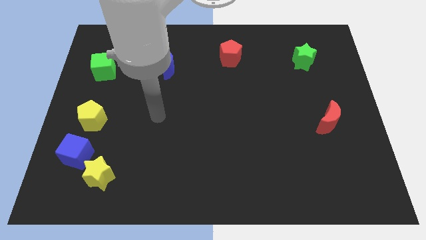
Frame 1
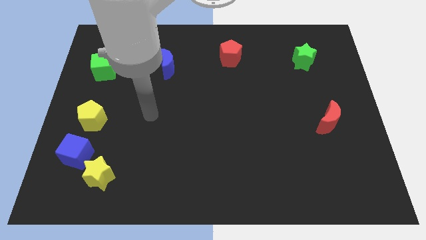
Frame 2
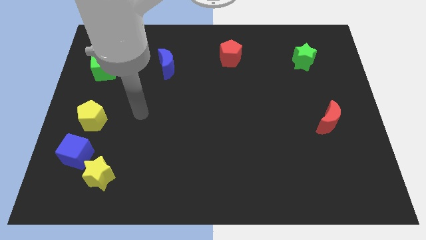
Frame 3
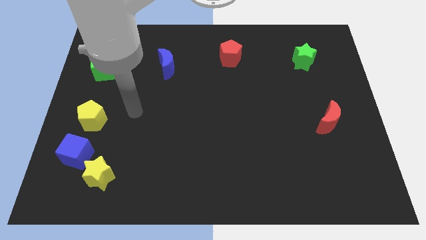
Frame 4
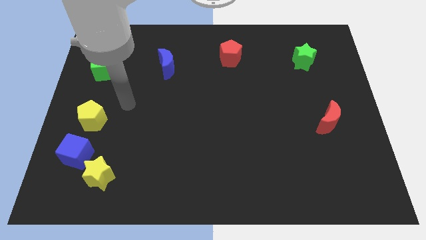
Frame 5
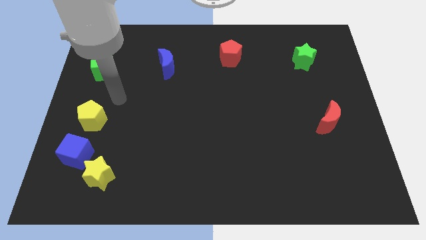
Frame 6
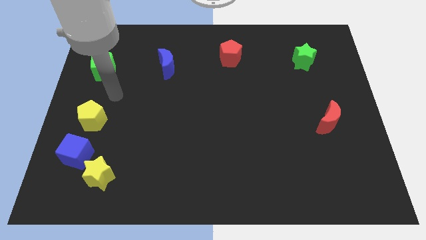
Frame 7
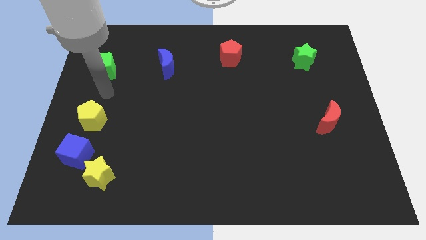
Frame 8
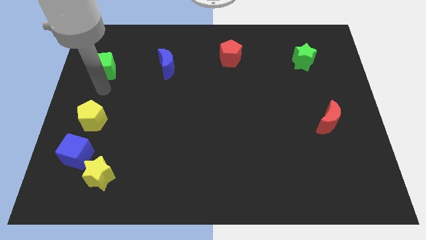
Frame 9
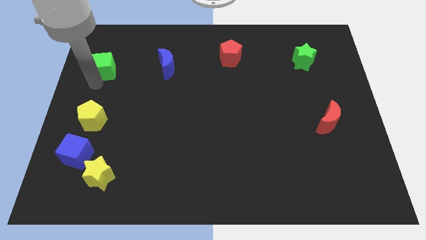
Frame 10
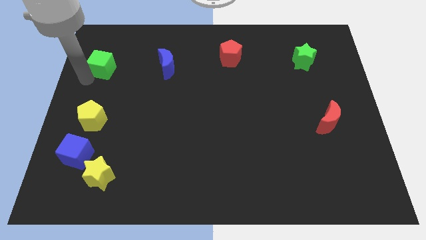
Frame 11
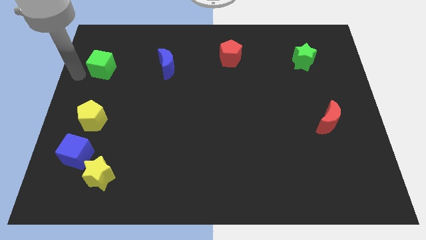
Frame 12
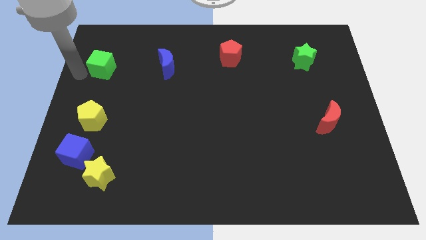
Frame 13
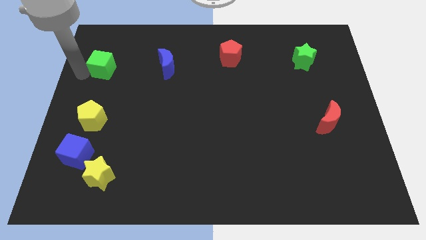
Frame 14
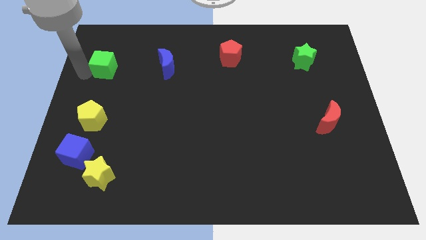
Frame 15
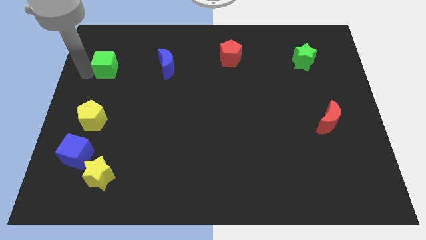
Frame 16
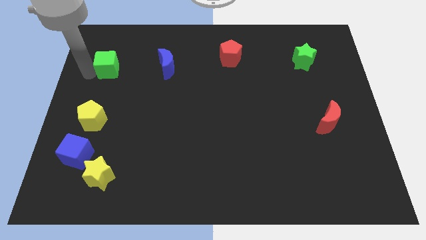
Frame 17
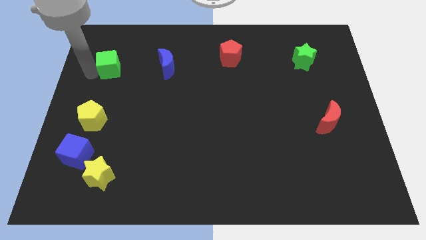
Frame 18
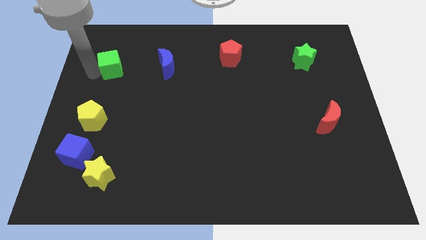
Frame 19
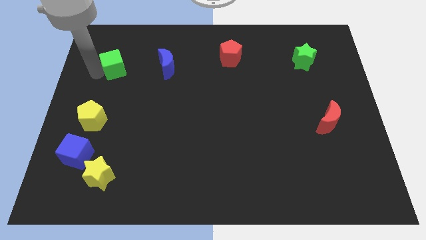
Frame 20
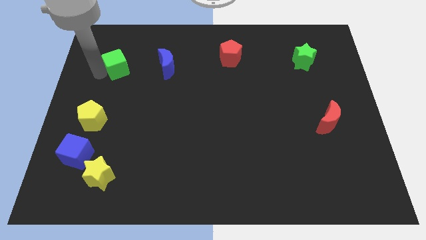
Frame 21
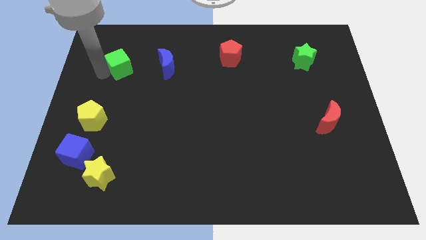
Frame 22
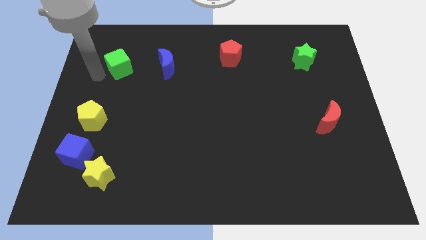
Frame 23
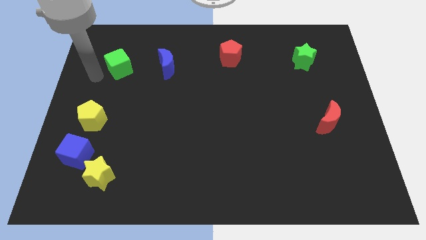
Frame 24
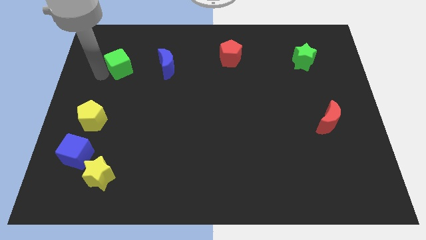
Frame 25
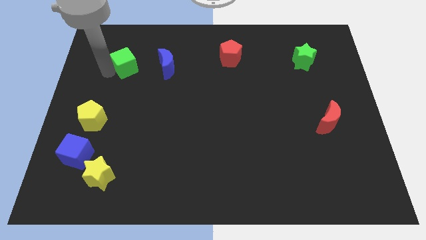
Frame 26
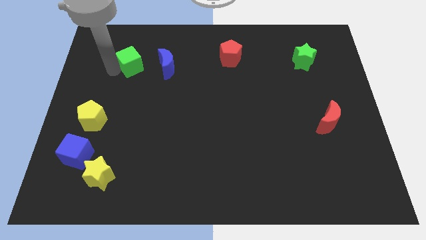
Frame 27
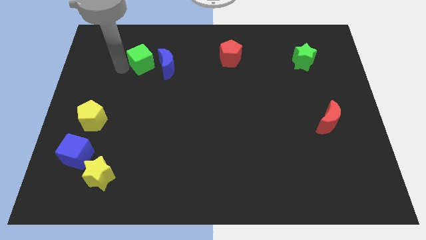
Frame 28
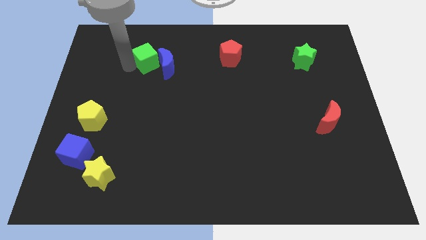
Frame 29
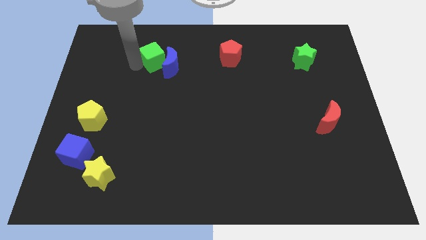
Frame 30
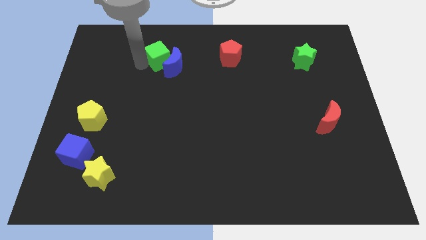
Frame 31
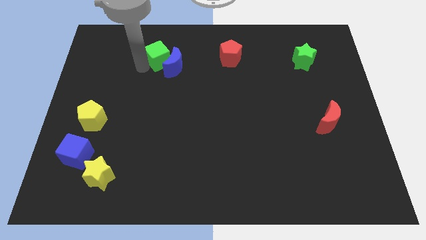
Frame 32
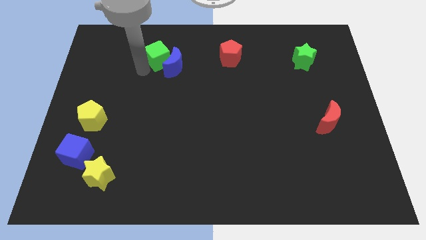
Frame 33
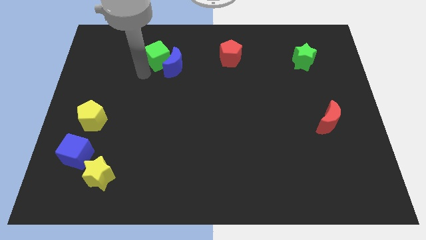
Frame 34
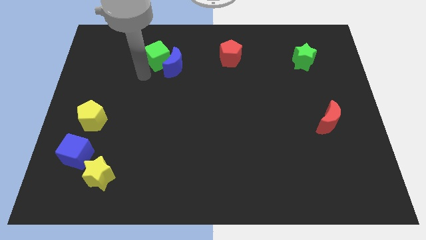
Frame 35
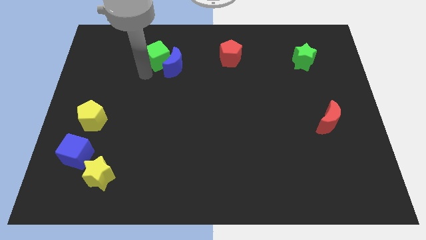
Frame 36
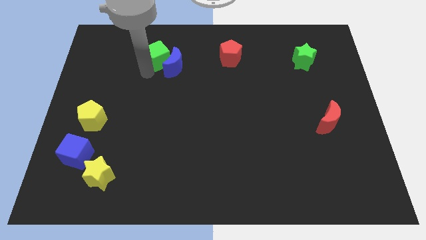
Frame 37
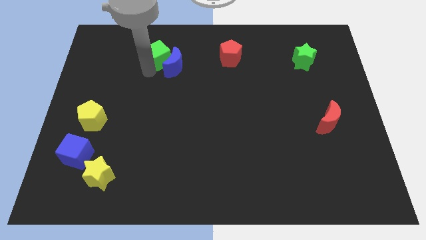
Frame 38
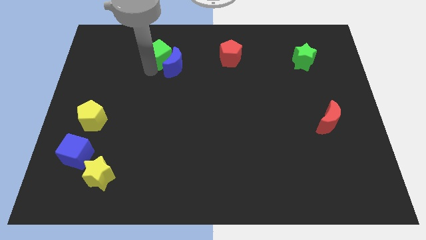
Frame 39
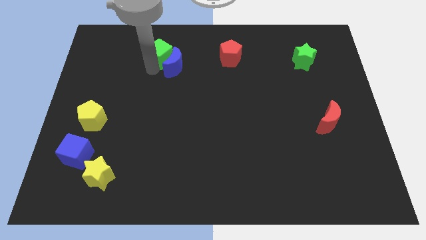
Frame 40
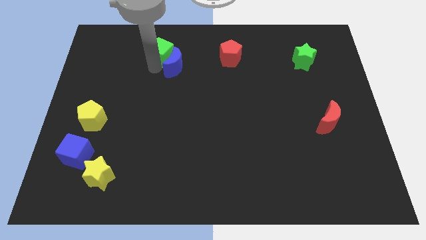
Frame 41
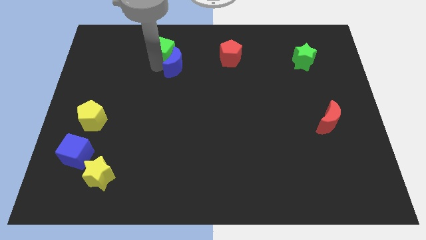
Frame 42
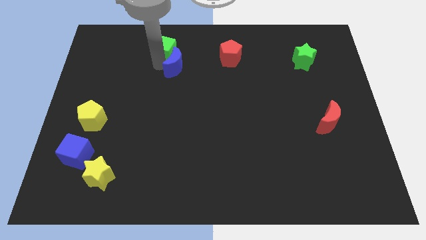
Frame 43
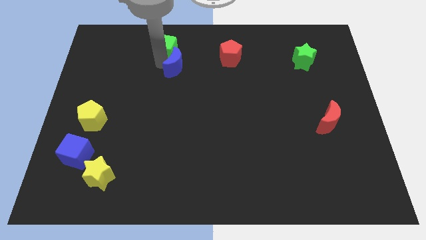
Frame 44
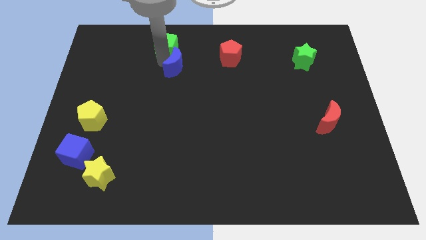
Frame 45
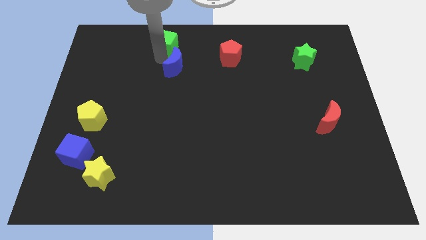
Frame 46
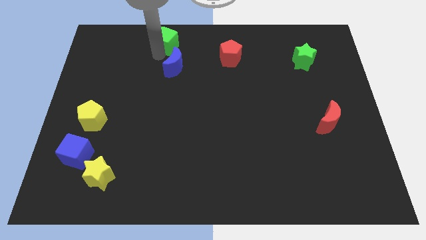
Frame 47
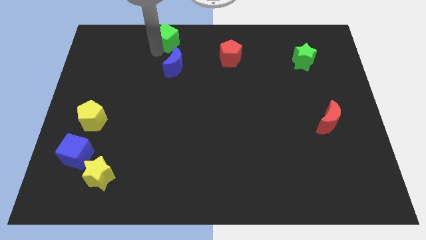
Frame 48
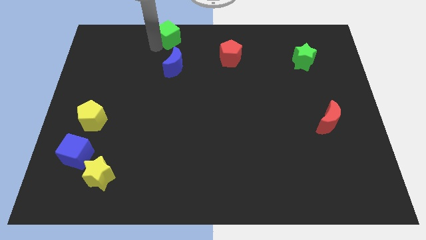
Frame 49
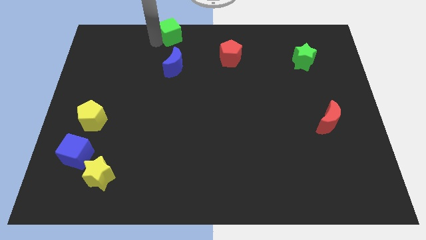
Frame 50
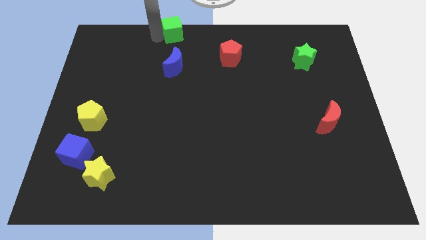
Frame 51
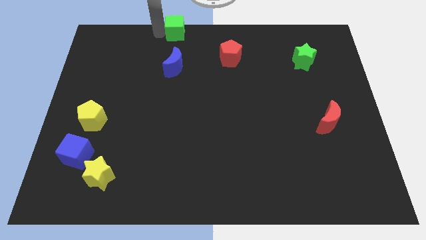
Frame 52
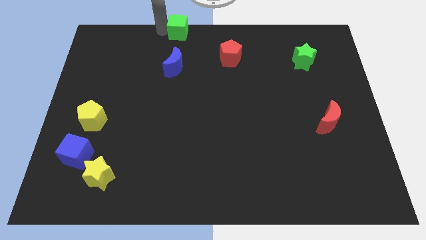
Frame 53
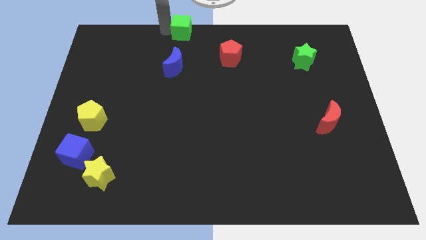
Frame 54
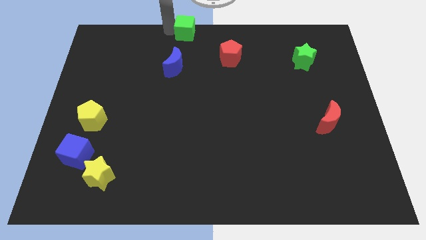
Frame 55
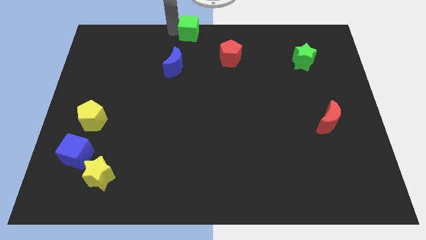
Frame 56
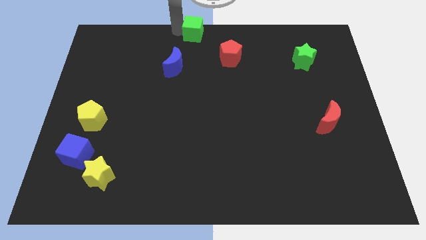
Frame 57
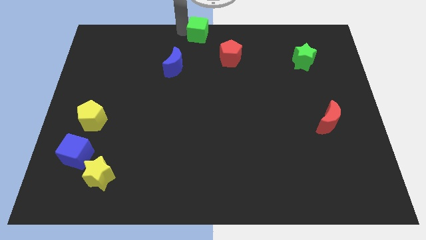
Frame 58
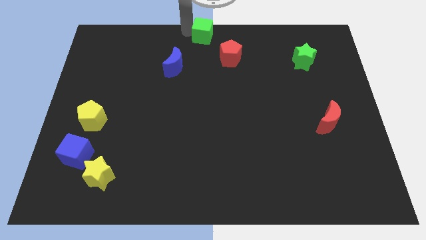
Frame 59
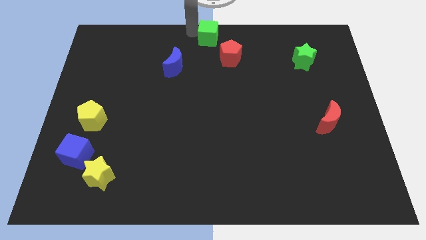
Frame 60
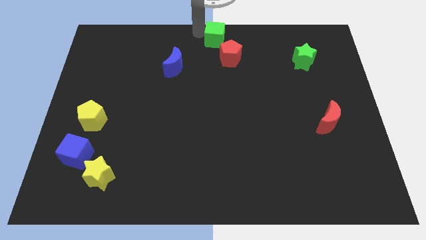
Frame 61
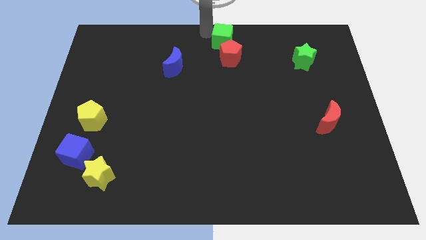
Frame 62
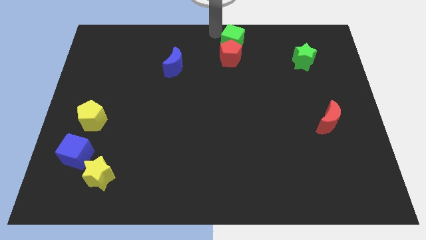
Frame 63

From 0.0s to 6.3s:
put the green cube next to the red pentagon
